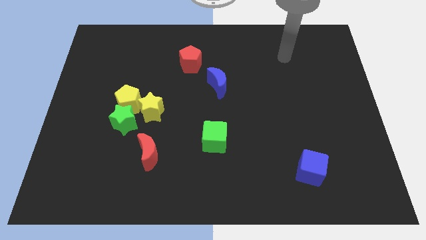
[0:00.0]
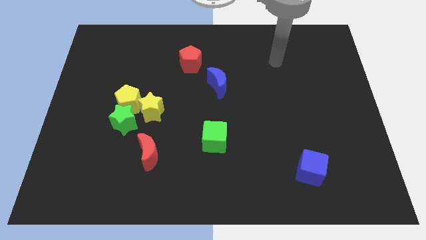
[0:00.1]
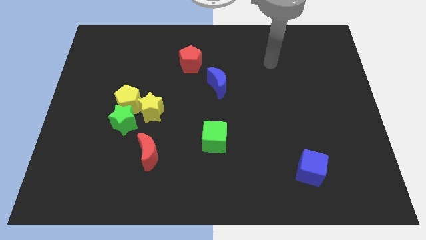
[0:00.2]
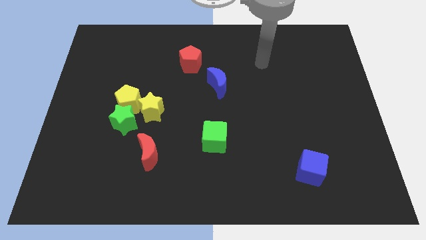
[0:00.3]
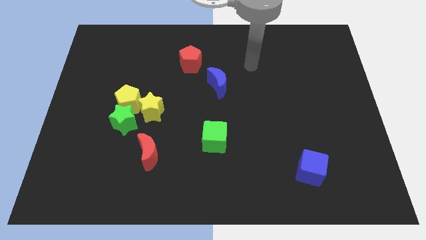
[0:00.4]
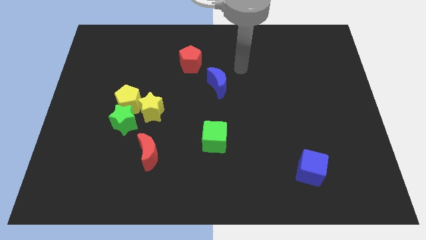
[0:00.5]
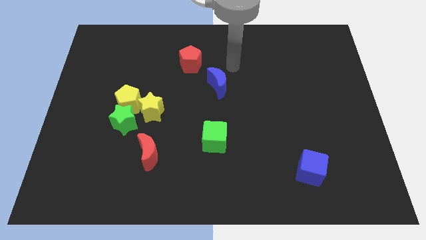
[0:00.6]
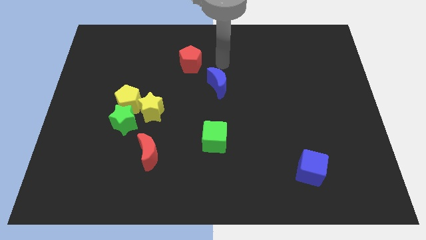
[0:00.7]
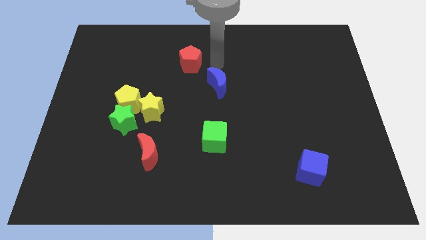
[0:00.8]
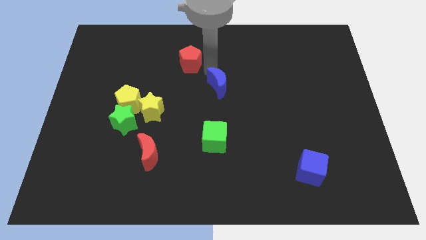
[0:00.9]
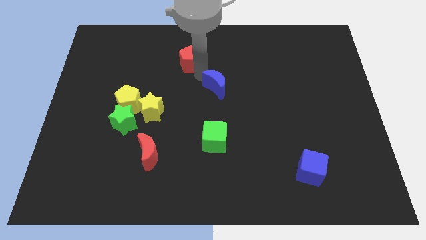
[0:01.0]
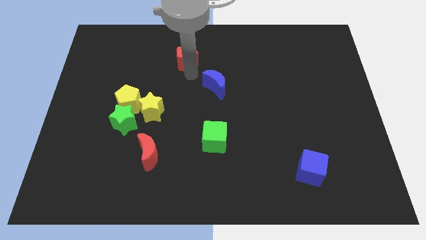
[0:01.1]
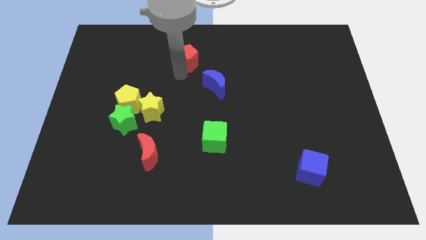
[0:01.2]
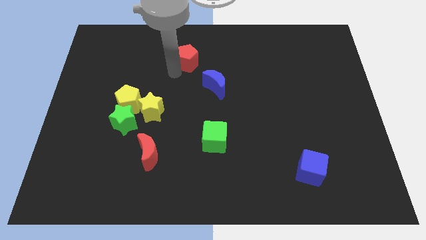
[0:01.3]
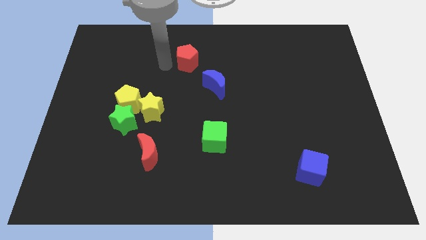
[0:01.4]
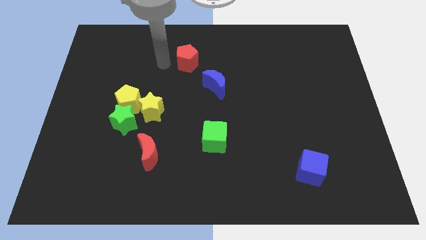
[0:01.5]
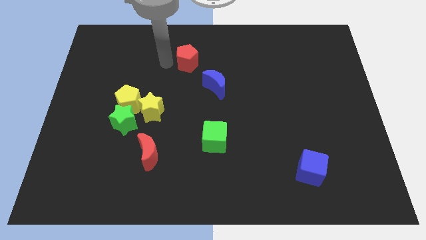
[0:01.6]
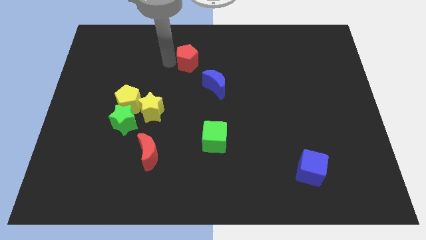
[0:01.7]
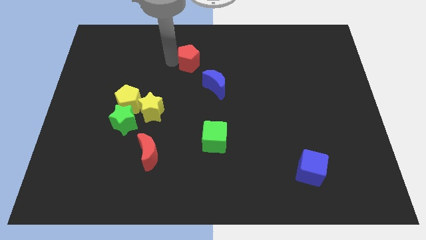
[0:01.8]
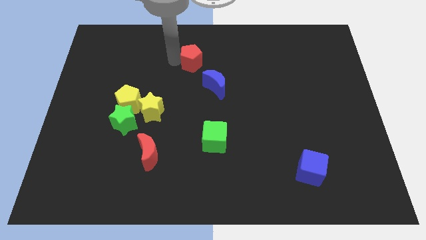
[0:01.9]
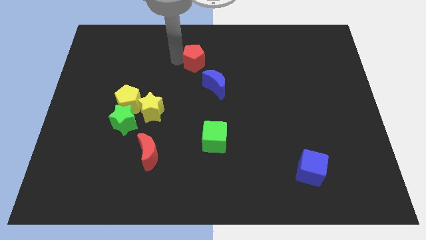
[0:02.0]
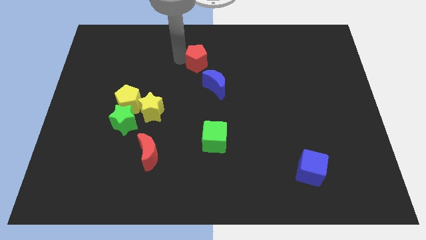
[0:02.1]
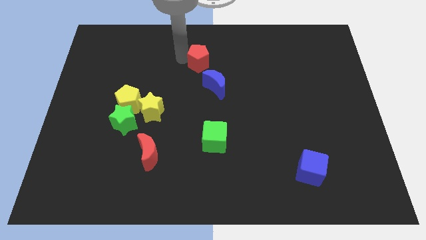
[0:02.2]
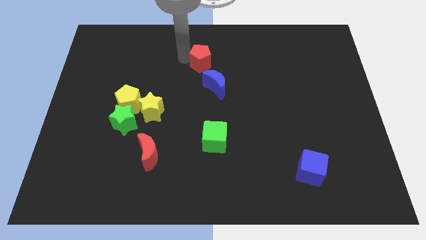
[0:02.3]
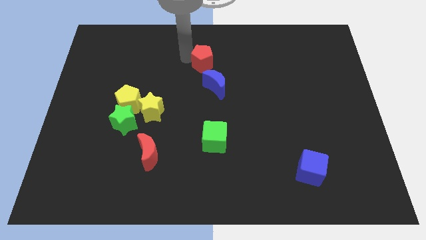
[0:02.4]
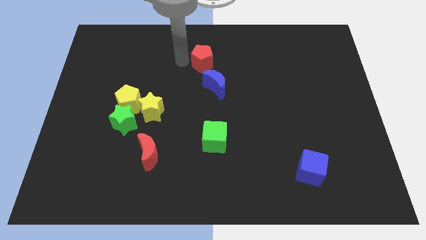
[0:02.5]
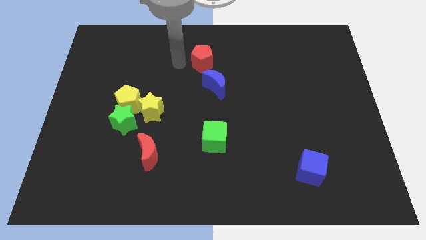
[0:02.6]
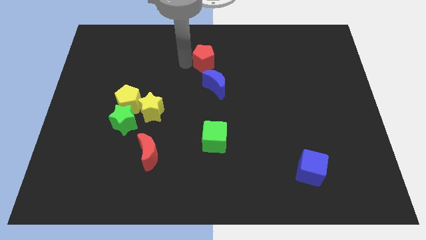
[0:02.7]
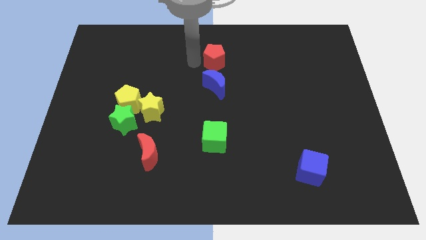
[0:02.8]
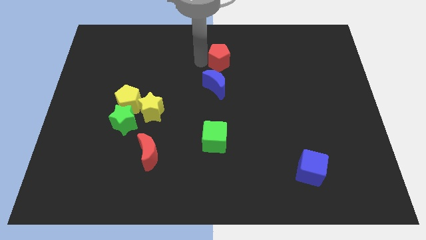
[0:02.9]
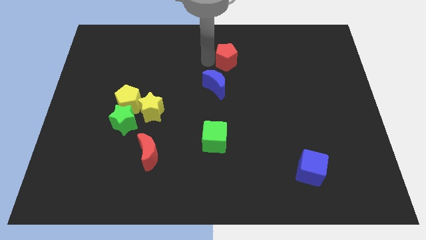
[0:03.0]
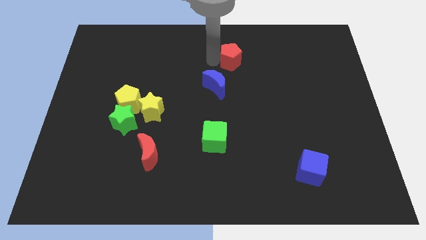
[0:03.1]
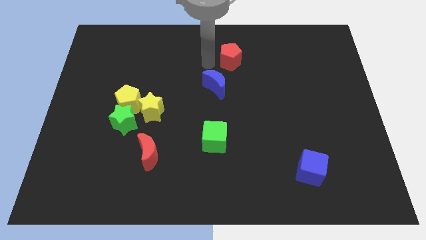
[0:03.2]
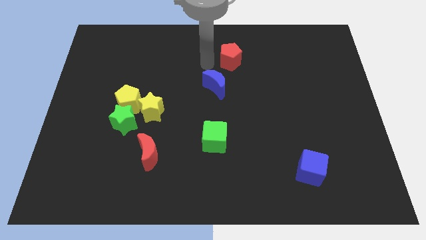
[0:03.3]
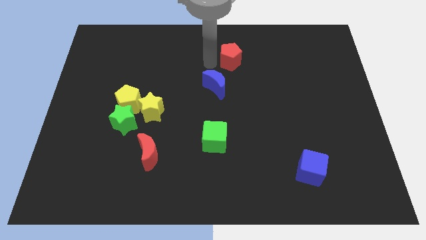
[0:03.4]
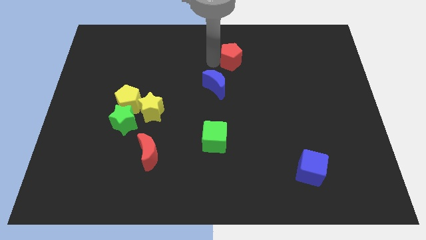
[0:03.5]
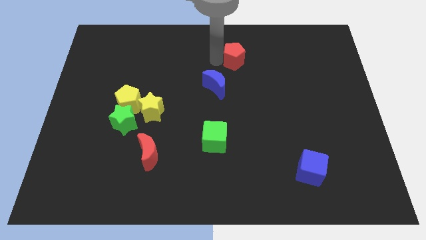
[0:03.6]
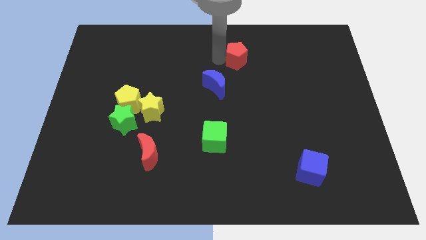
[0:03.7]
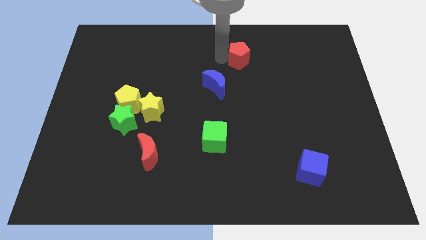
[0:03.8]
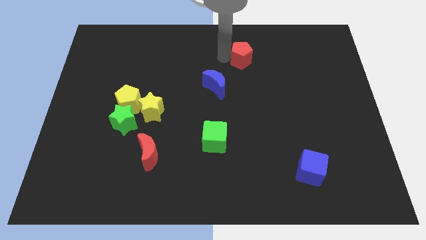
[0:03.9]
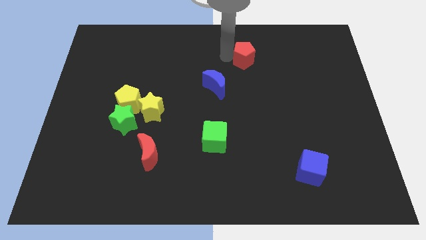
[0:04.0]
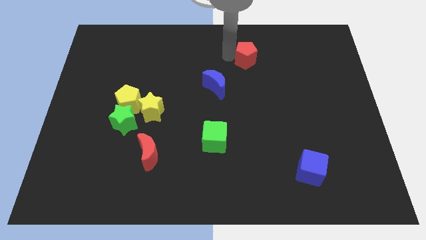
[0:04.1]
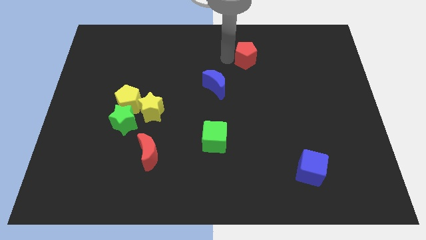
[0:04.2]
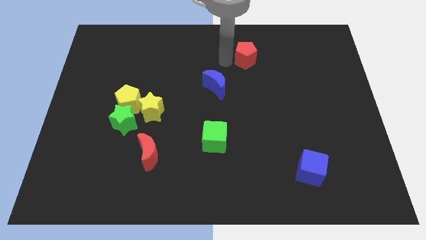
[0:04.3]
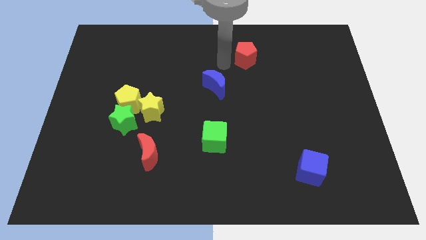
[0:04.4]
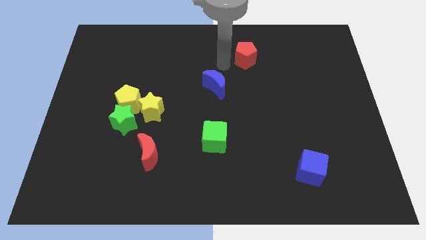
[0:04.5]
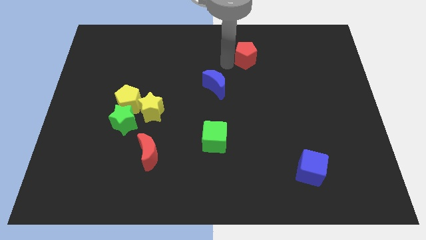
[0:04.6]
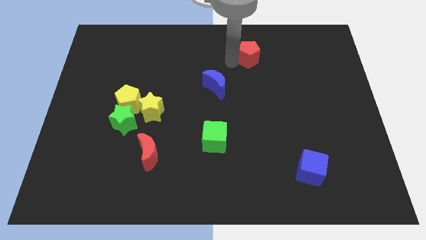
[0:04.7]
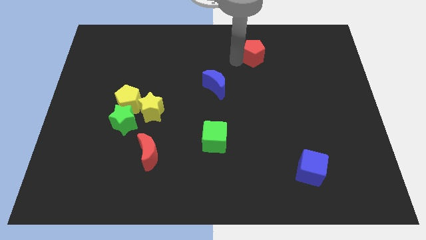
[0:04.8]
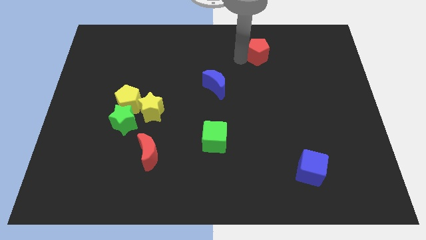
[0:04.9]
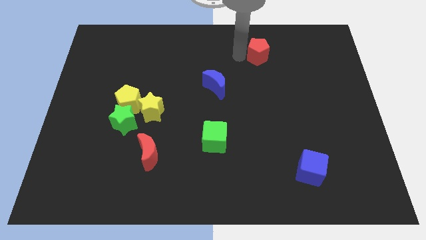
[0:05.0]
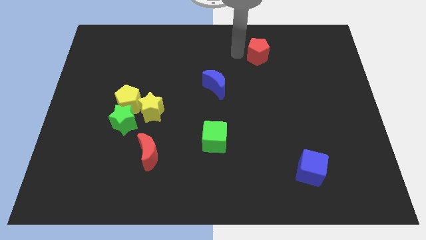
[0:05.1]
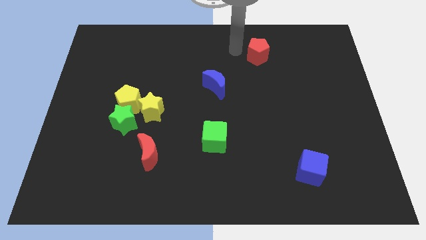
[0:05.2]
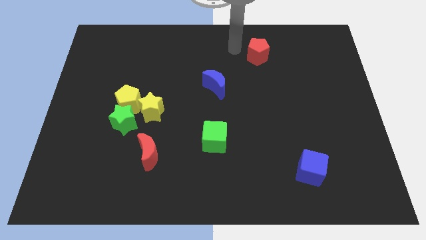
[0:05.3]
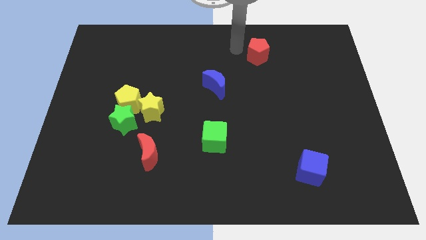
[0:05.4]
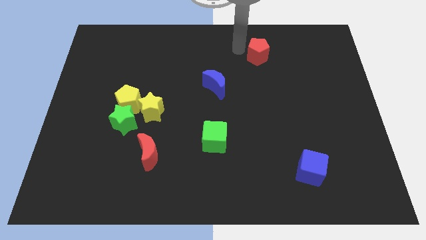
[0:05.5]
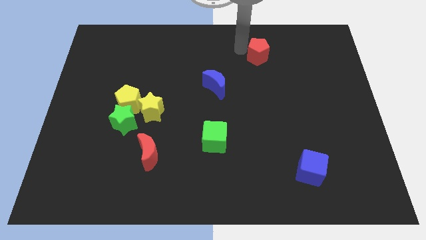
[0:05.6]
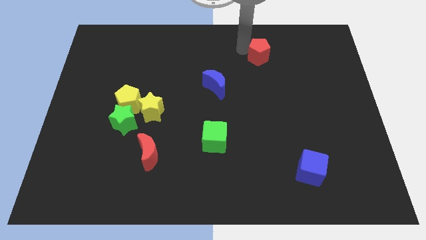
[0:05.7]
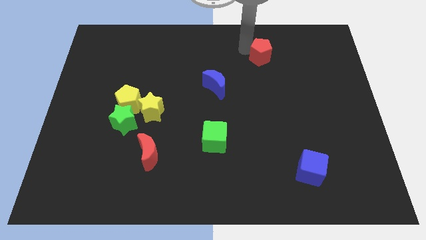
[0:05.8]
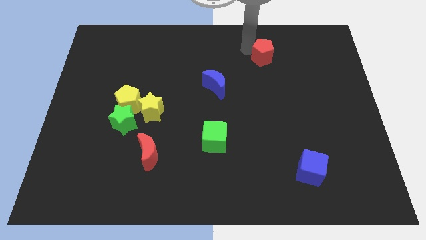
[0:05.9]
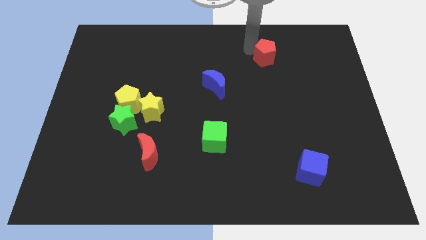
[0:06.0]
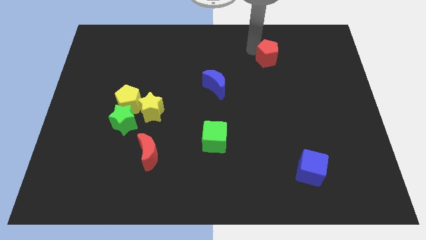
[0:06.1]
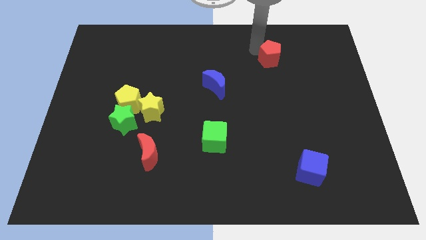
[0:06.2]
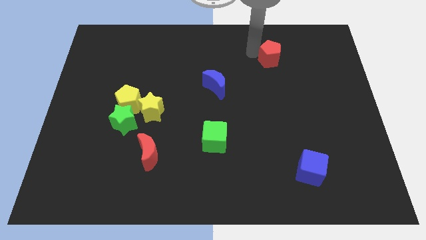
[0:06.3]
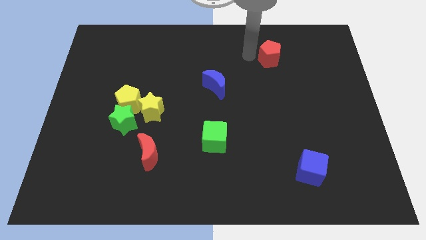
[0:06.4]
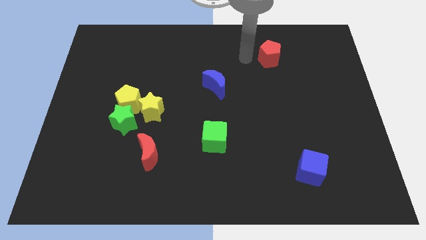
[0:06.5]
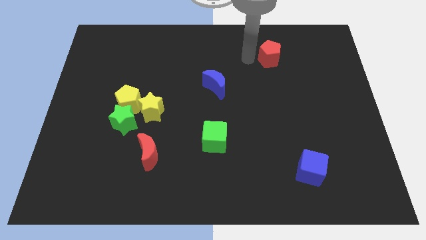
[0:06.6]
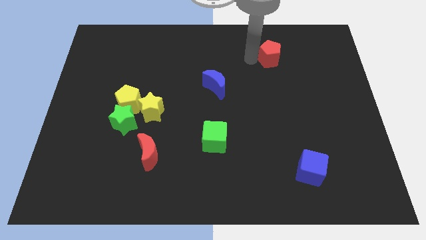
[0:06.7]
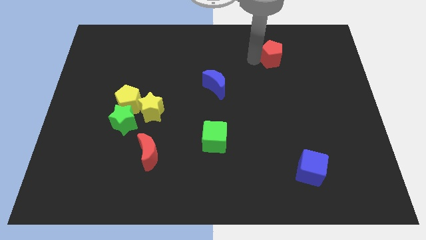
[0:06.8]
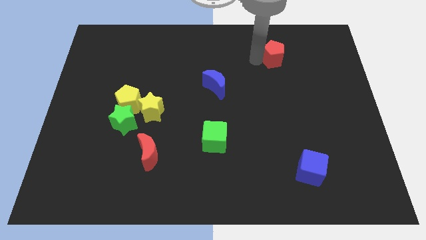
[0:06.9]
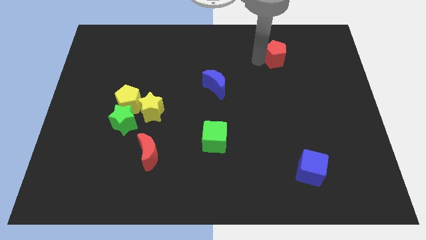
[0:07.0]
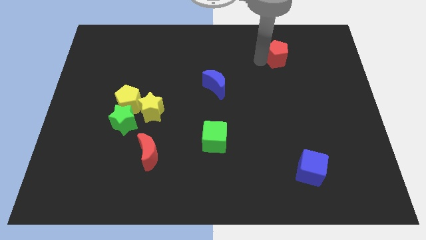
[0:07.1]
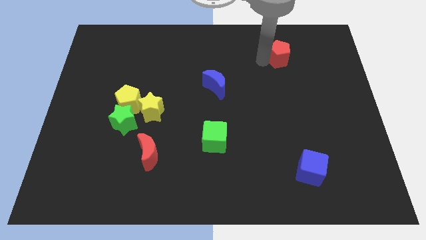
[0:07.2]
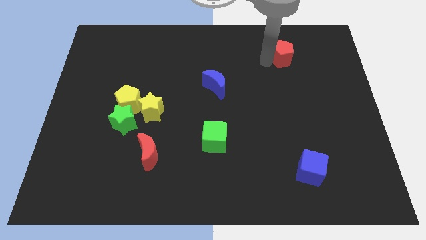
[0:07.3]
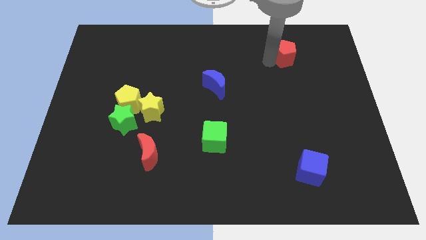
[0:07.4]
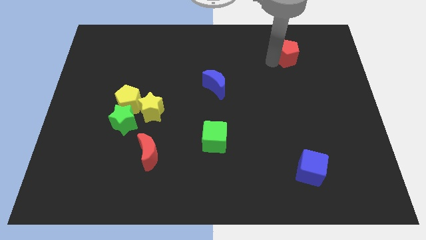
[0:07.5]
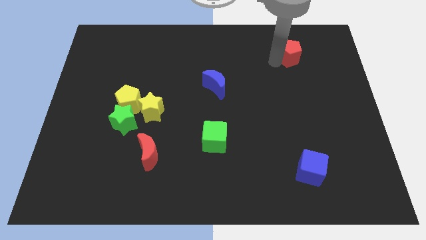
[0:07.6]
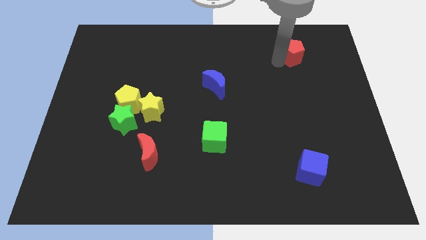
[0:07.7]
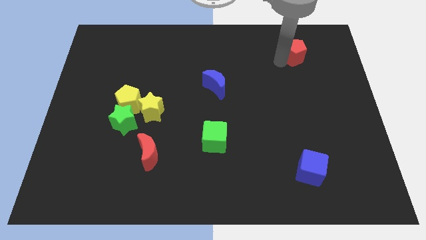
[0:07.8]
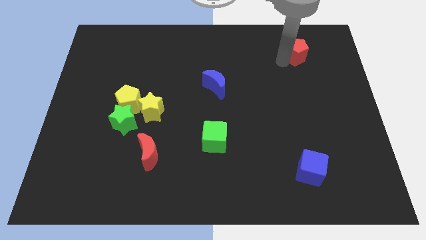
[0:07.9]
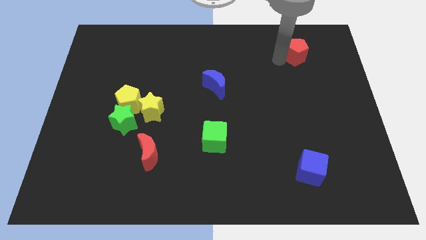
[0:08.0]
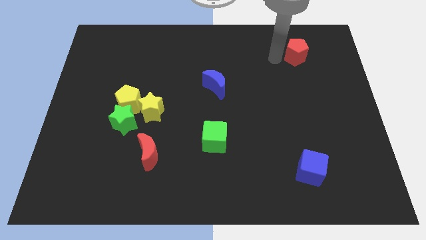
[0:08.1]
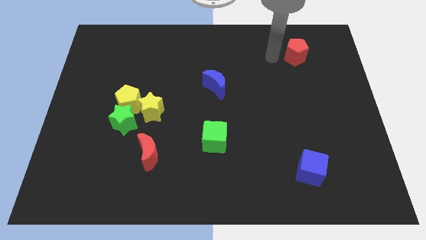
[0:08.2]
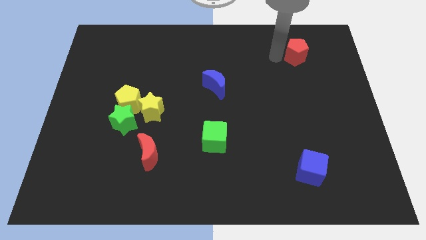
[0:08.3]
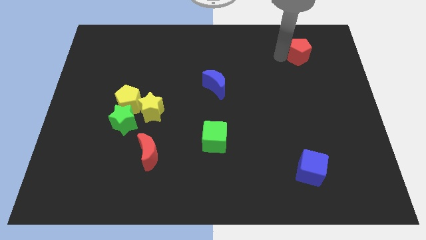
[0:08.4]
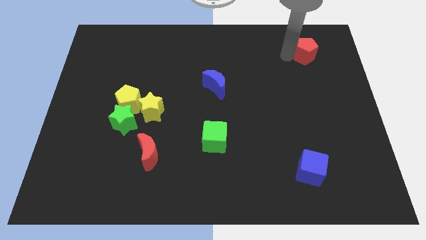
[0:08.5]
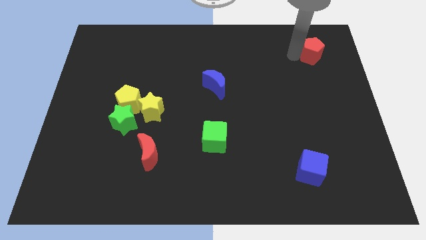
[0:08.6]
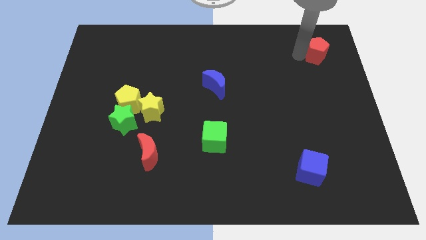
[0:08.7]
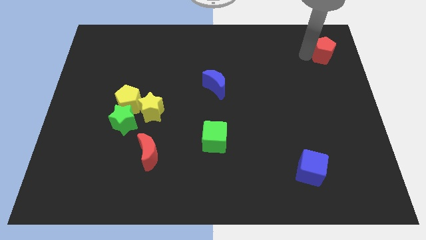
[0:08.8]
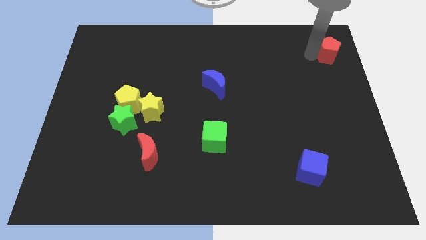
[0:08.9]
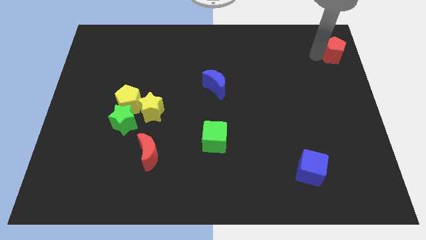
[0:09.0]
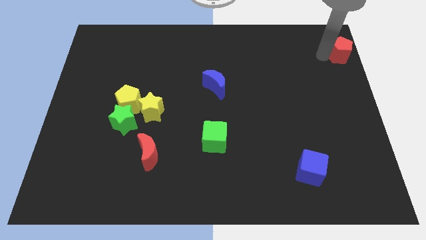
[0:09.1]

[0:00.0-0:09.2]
move the red pentagon to the top right corner
